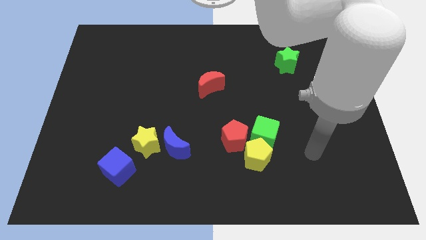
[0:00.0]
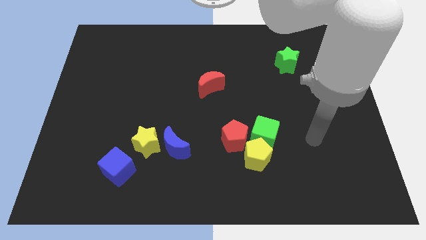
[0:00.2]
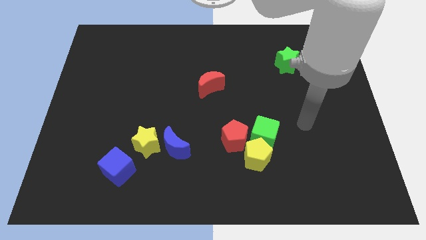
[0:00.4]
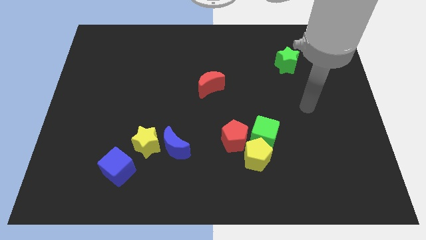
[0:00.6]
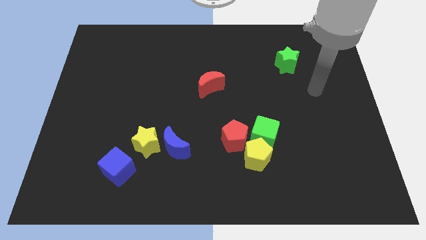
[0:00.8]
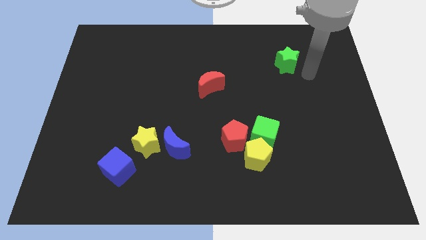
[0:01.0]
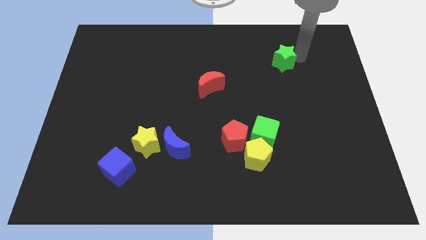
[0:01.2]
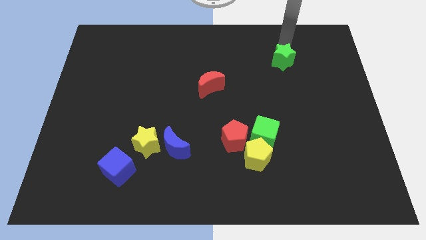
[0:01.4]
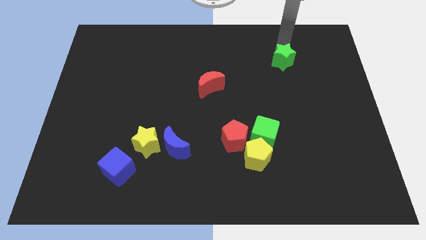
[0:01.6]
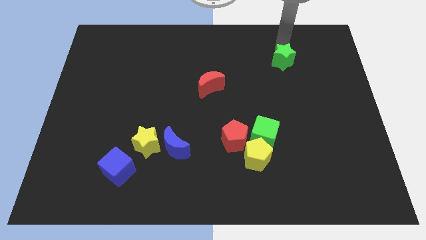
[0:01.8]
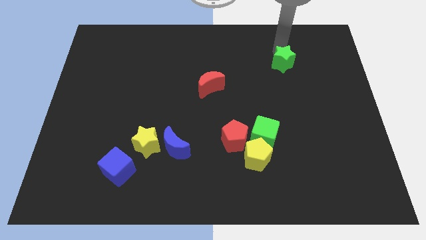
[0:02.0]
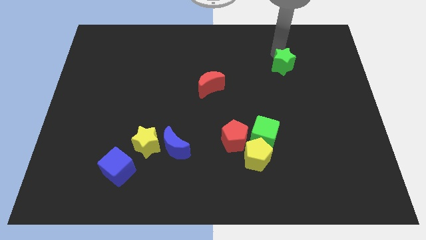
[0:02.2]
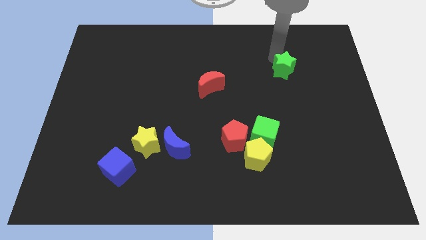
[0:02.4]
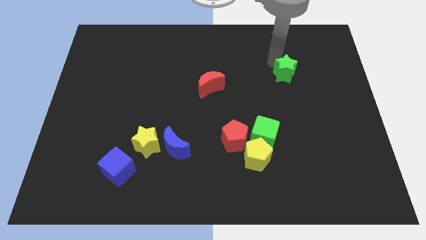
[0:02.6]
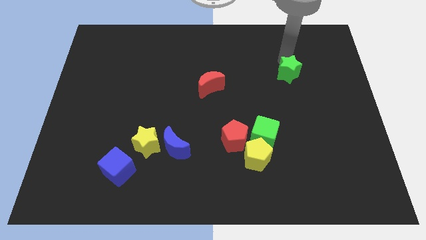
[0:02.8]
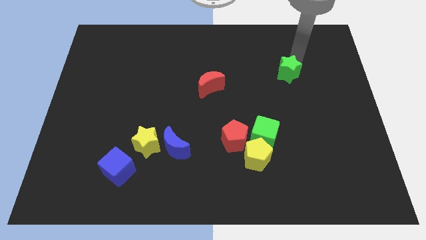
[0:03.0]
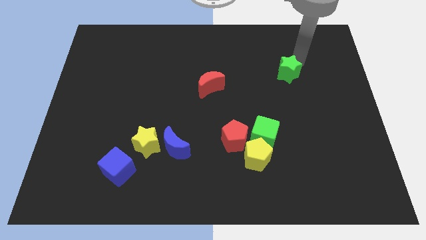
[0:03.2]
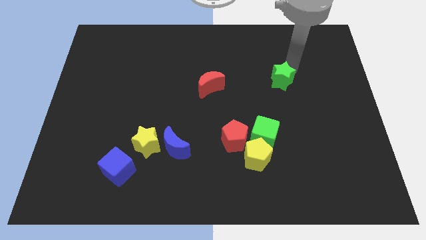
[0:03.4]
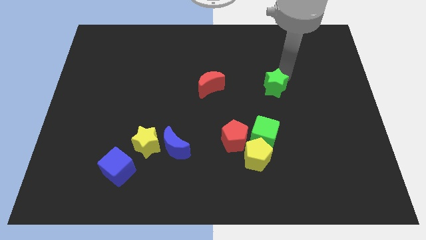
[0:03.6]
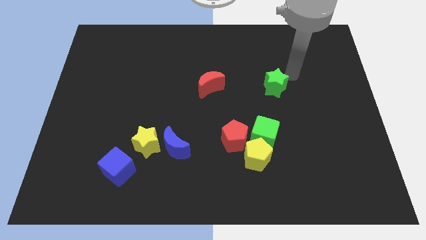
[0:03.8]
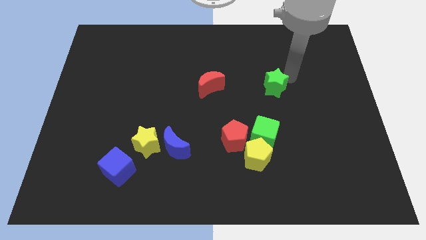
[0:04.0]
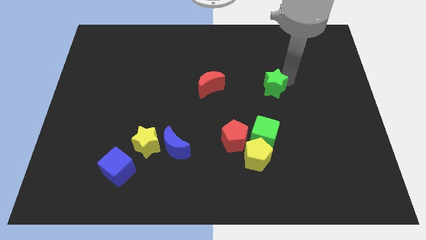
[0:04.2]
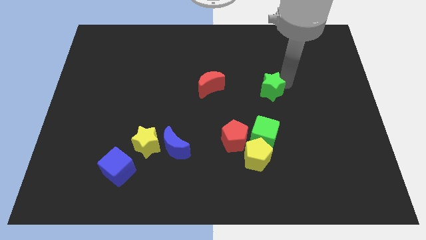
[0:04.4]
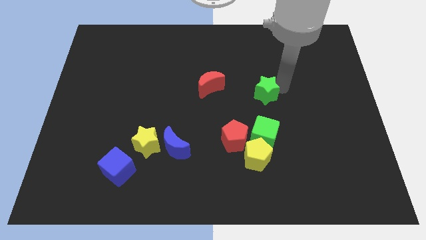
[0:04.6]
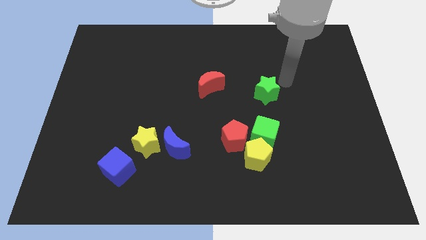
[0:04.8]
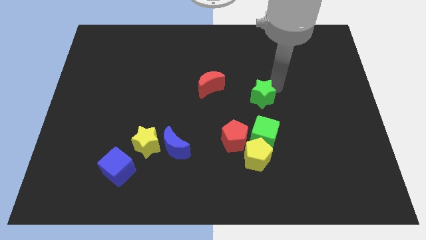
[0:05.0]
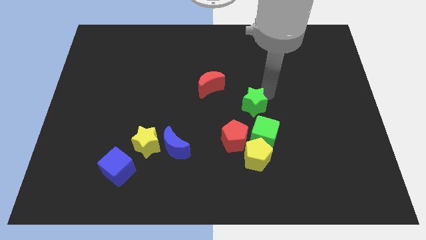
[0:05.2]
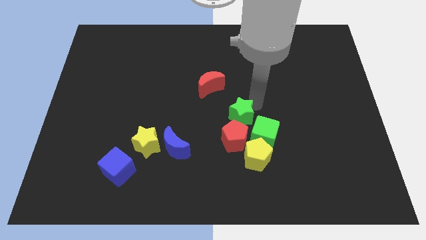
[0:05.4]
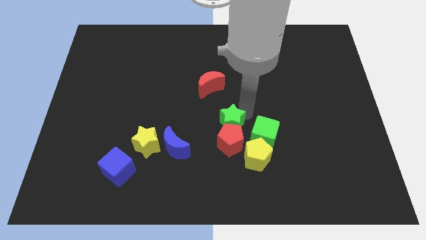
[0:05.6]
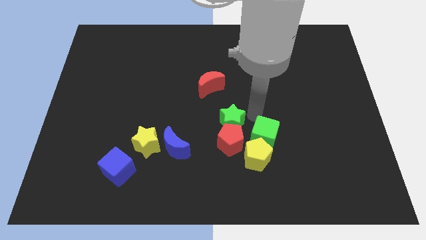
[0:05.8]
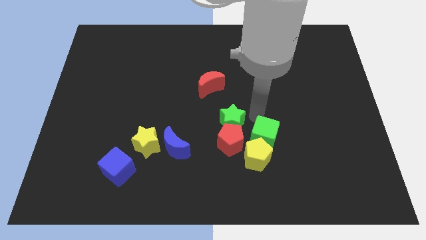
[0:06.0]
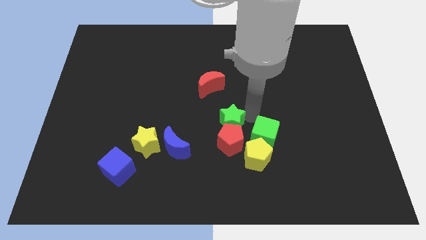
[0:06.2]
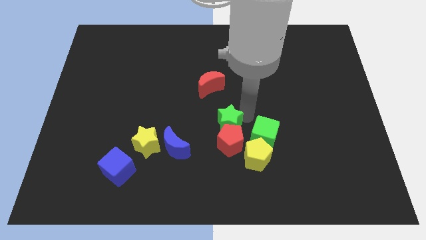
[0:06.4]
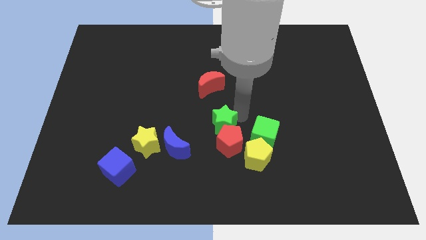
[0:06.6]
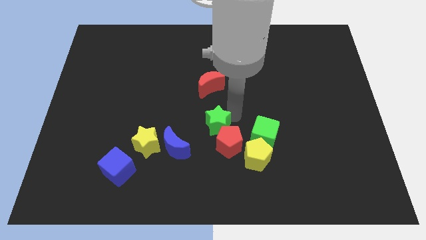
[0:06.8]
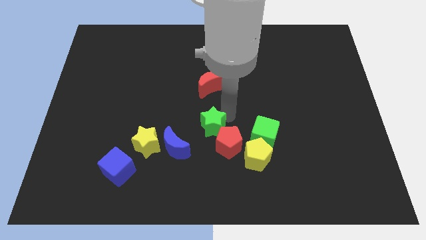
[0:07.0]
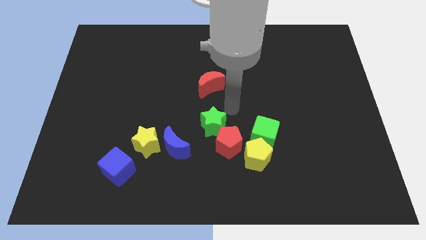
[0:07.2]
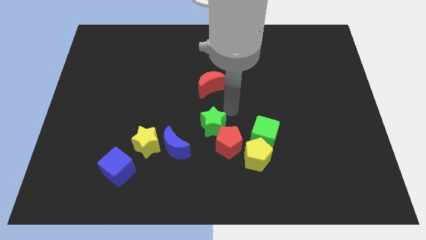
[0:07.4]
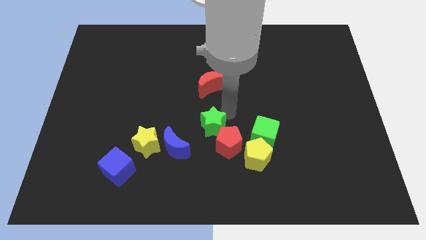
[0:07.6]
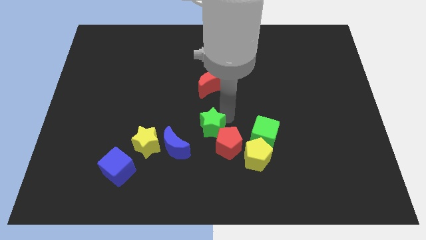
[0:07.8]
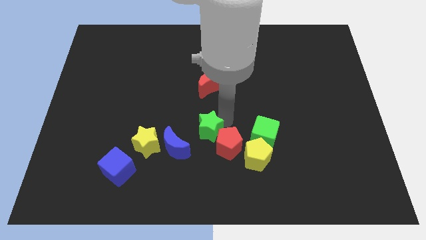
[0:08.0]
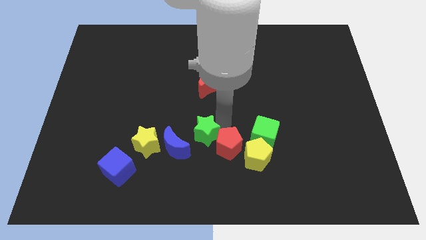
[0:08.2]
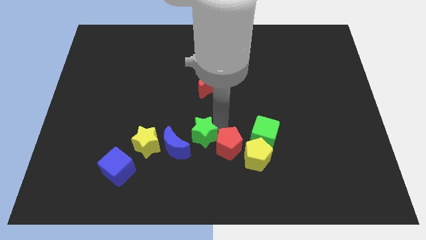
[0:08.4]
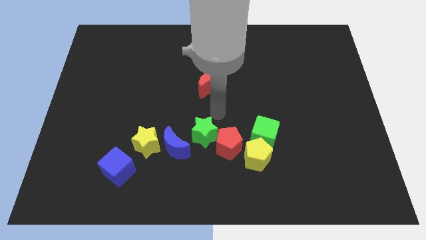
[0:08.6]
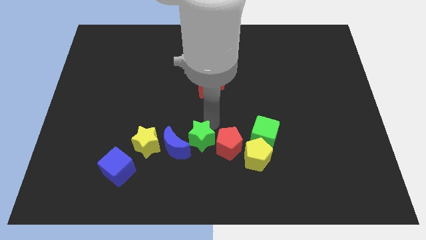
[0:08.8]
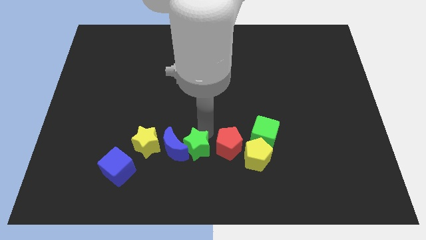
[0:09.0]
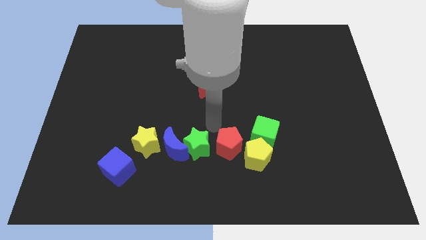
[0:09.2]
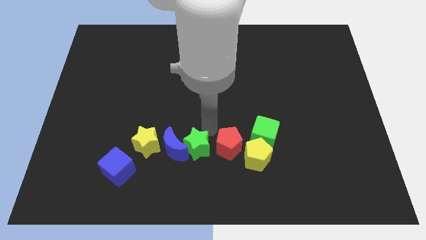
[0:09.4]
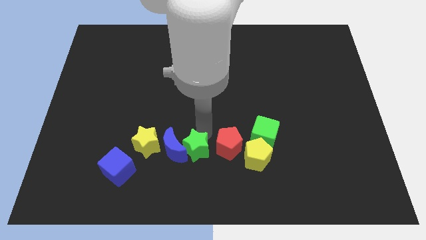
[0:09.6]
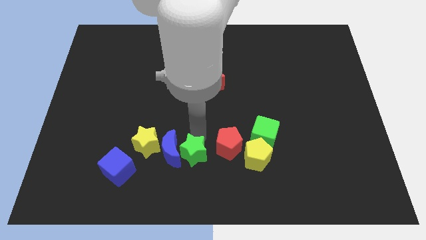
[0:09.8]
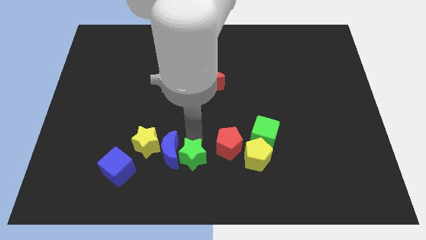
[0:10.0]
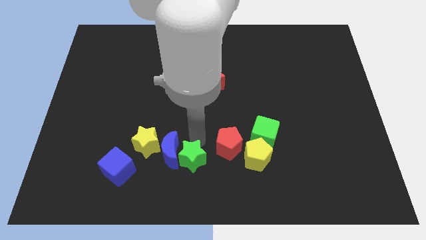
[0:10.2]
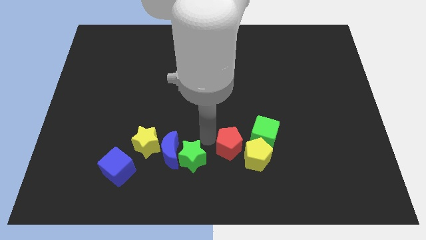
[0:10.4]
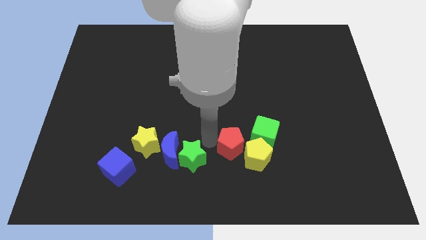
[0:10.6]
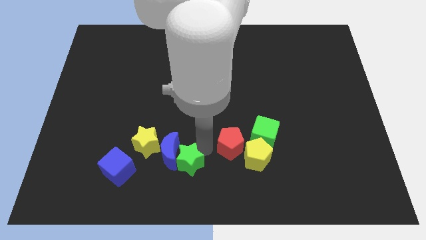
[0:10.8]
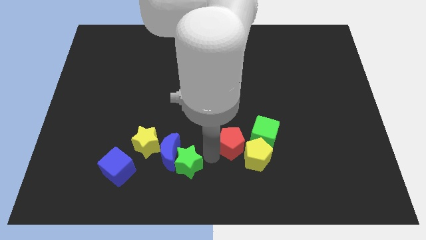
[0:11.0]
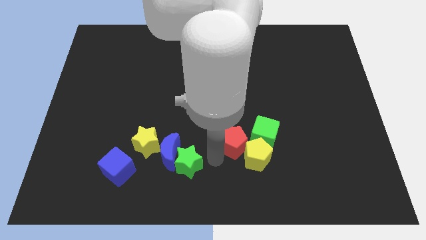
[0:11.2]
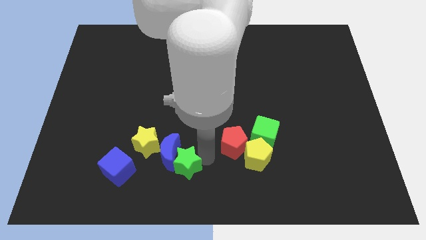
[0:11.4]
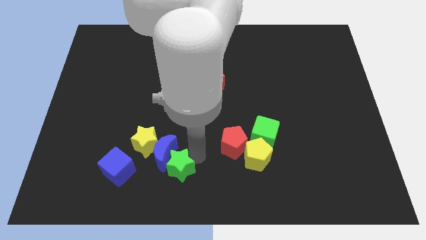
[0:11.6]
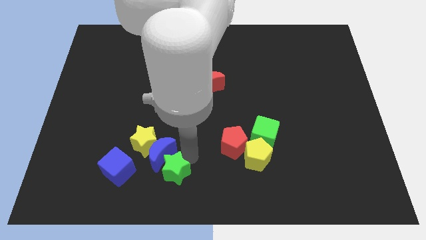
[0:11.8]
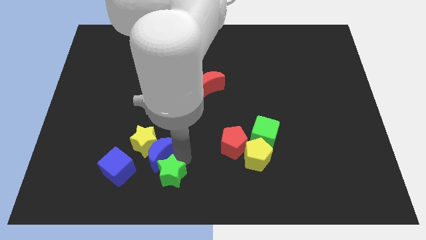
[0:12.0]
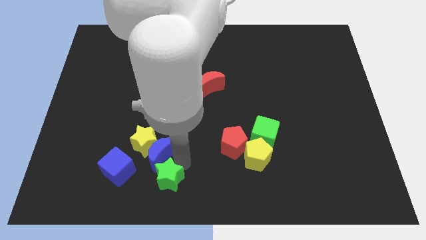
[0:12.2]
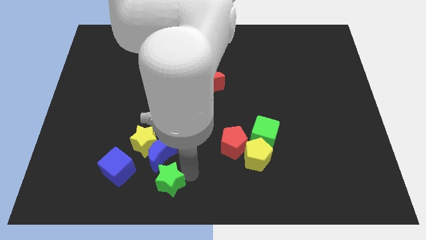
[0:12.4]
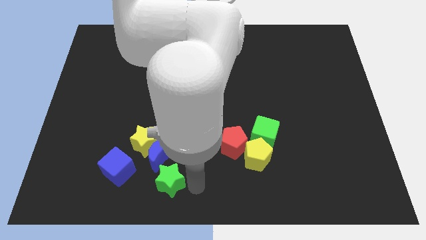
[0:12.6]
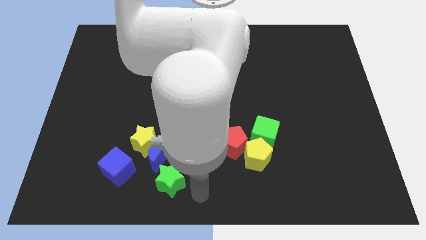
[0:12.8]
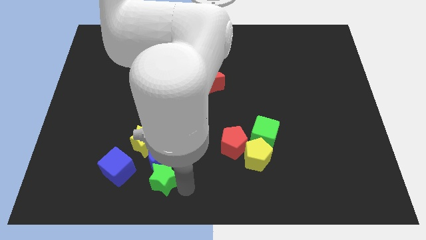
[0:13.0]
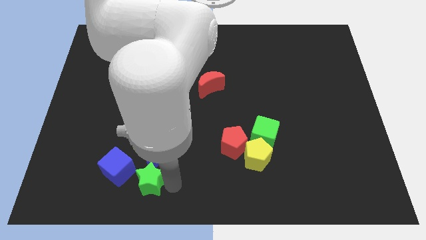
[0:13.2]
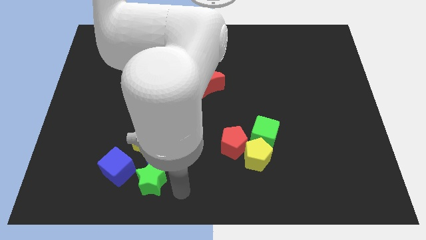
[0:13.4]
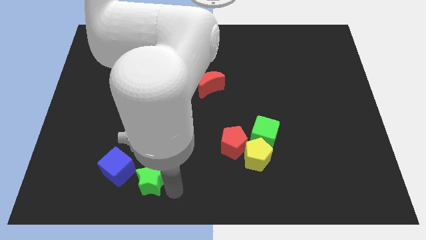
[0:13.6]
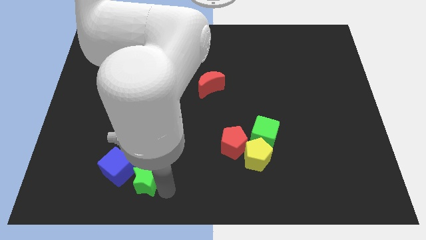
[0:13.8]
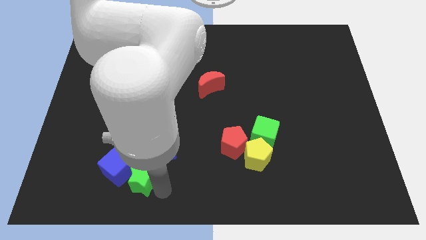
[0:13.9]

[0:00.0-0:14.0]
put the green star next to the blue cube
